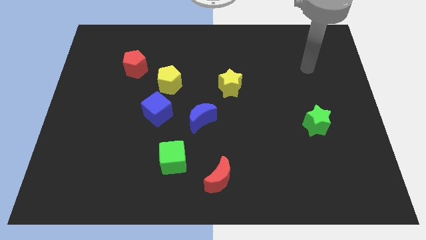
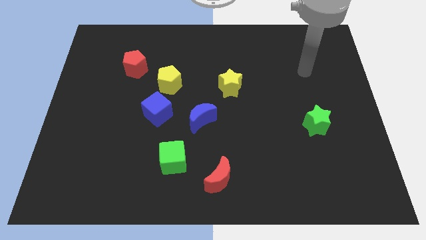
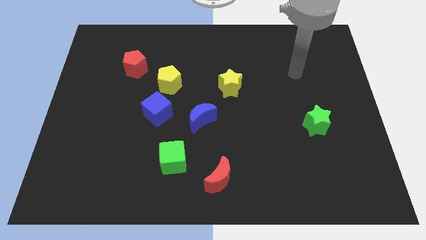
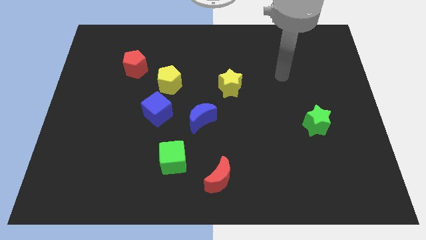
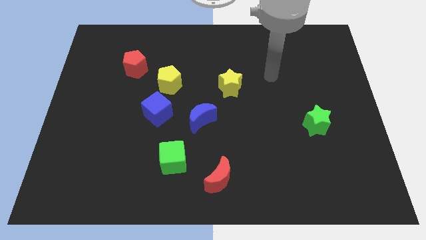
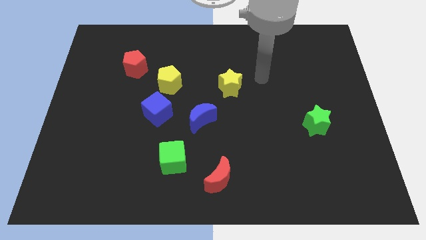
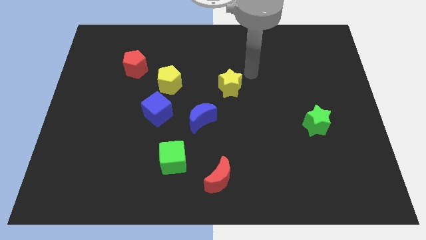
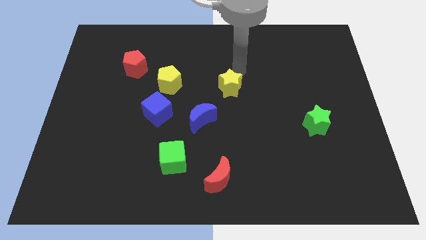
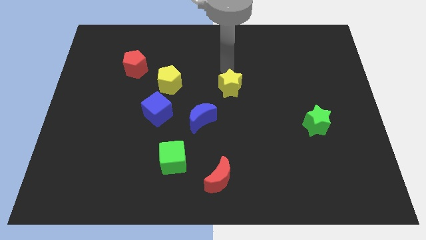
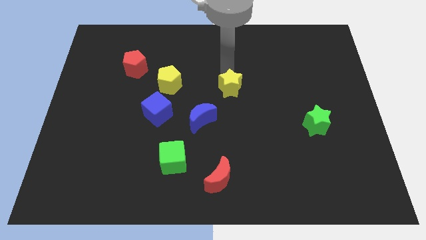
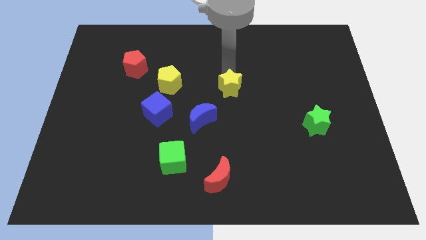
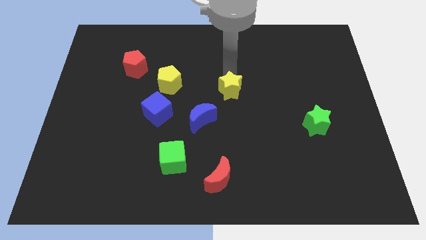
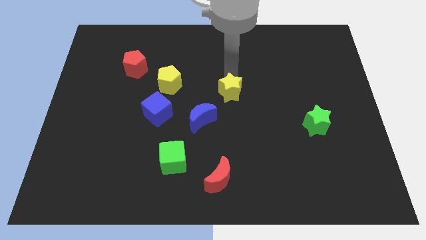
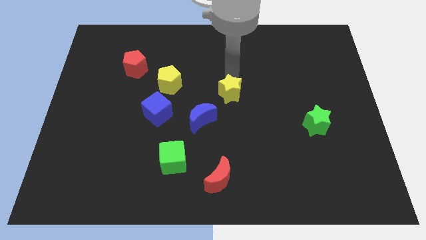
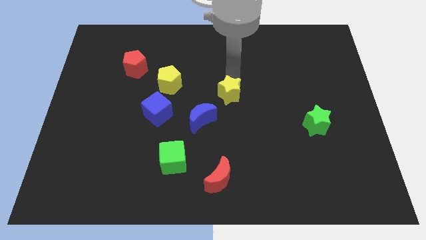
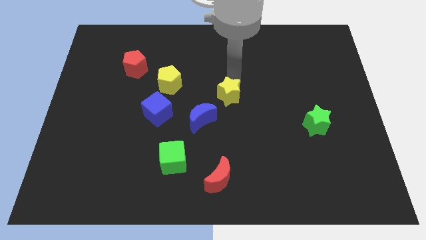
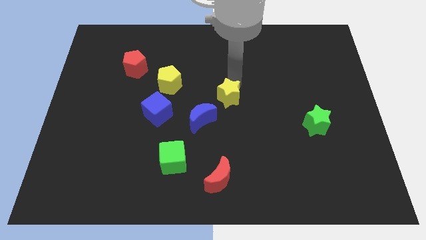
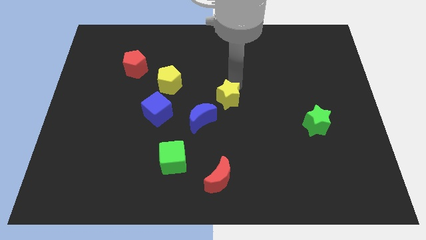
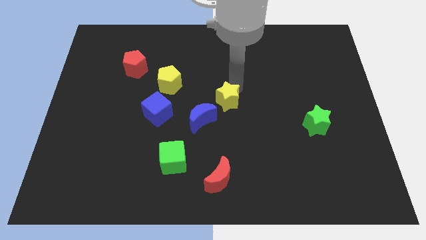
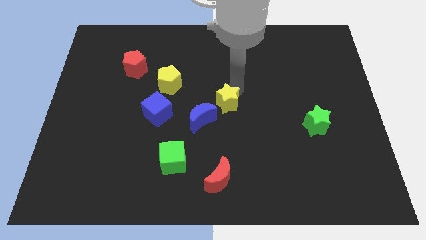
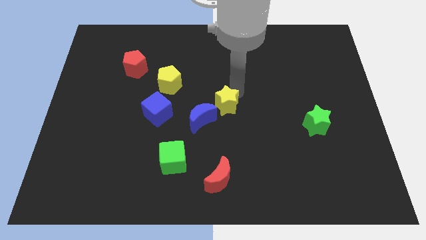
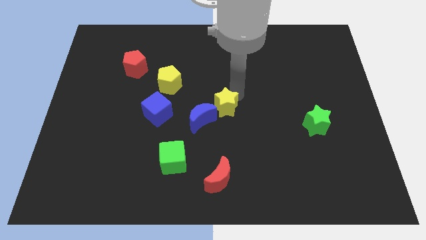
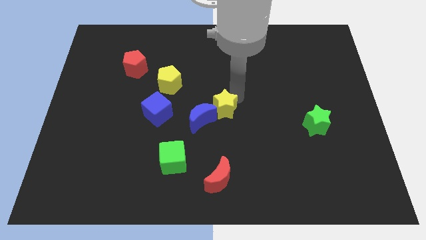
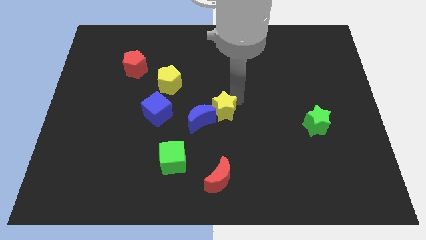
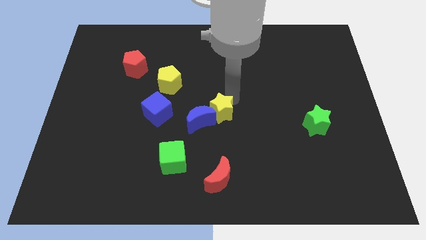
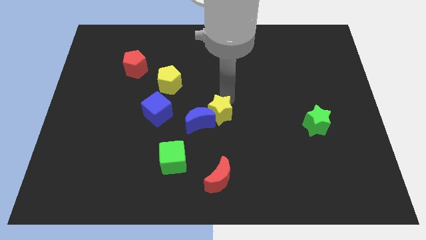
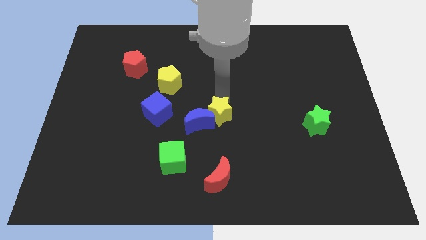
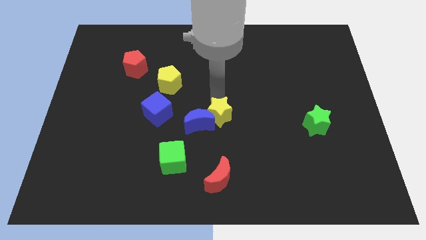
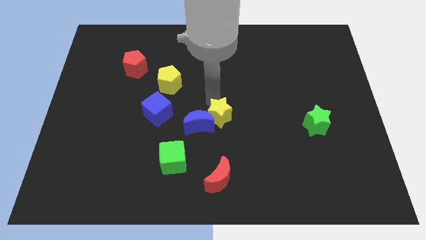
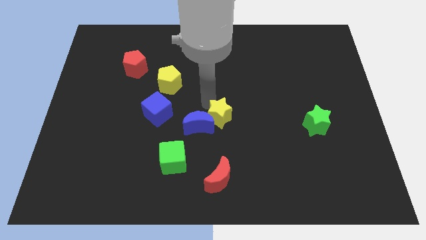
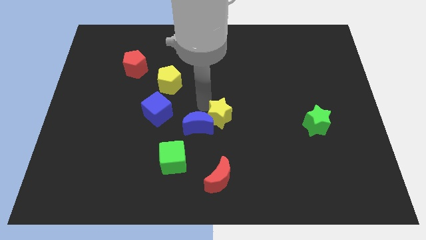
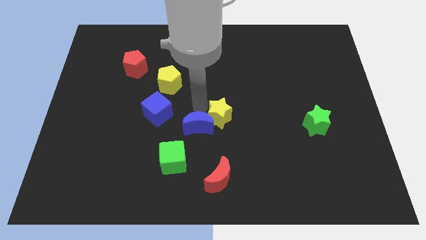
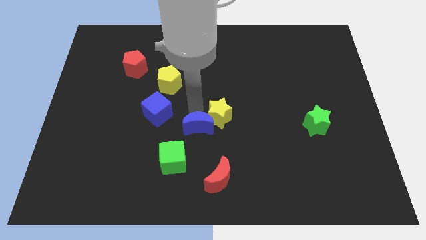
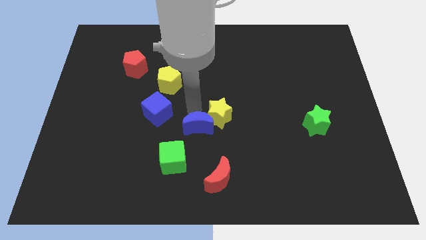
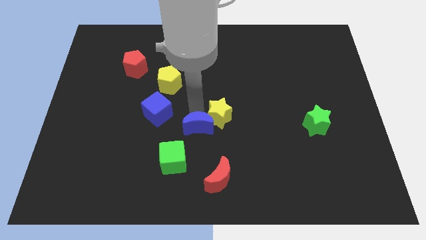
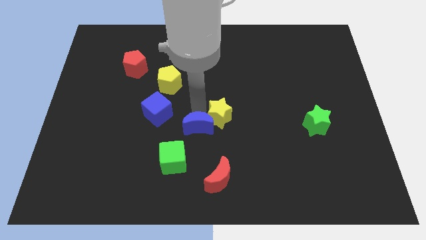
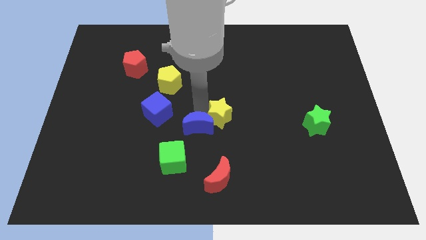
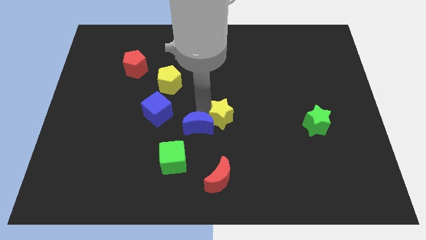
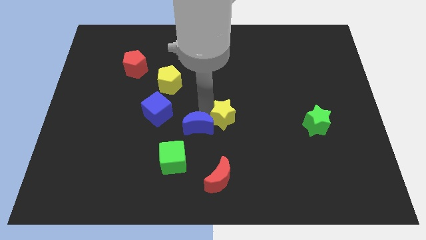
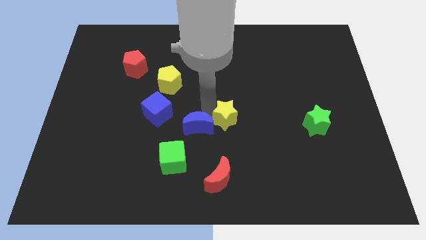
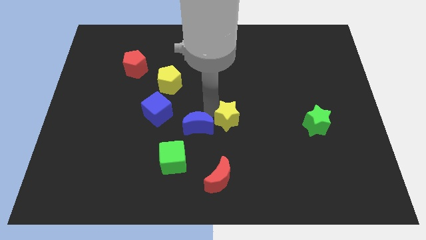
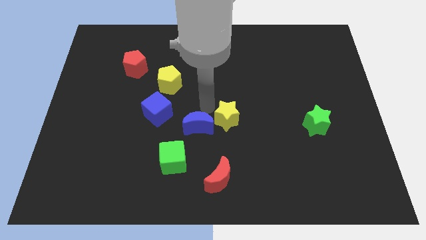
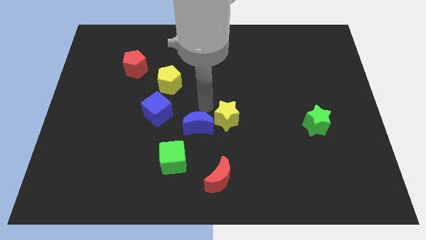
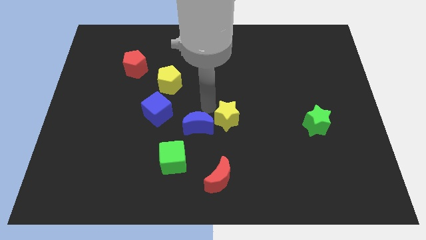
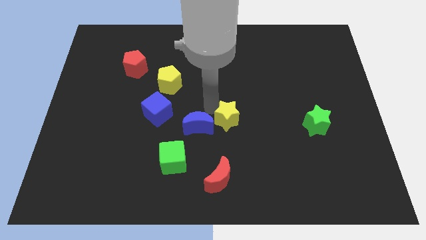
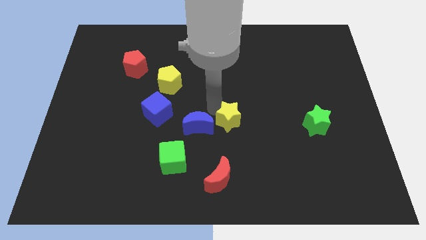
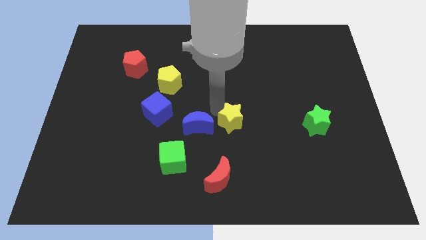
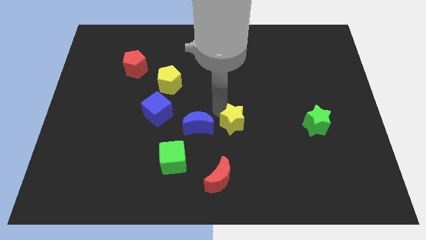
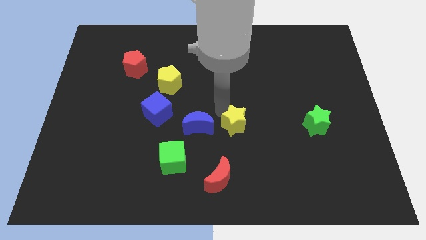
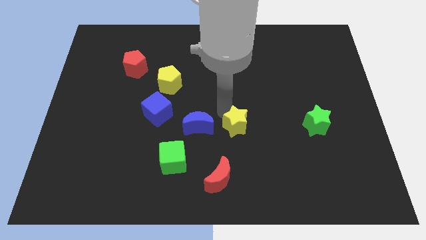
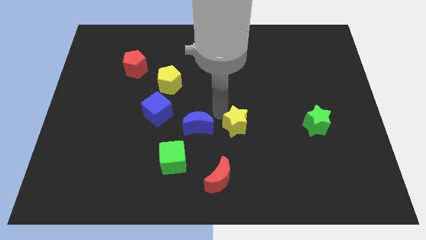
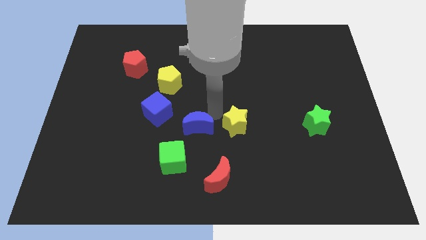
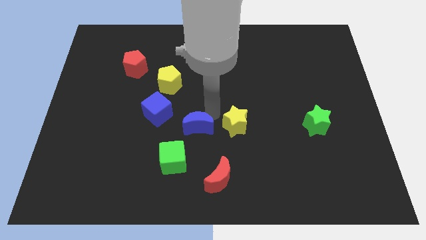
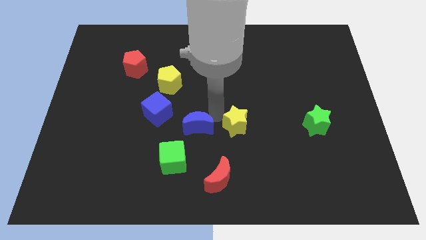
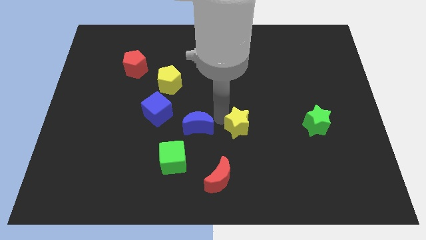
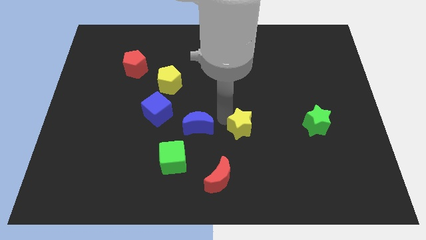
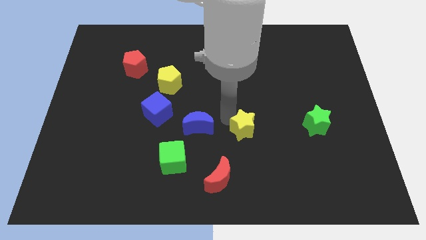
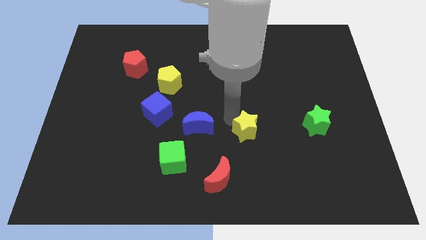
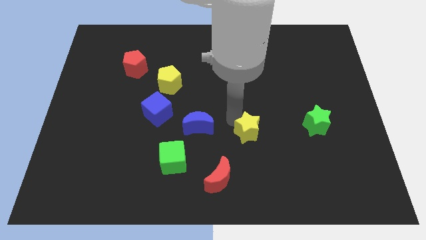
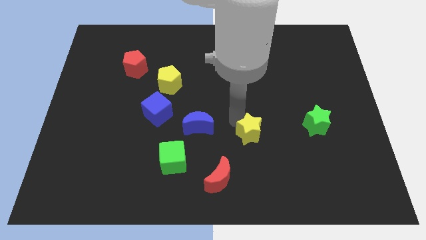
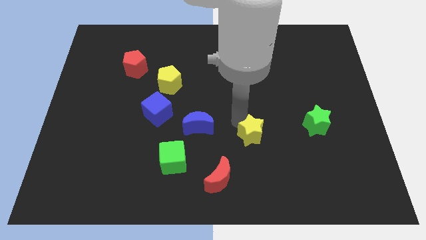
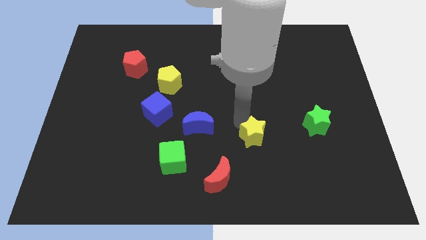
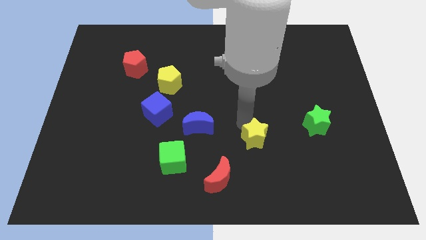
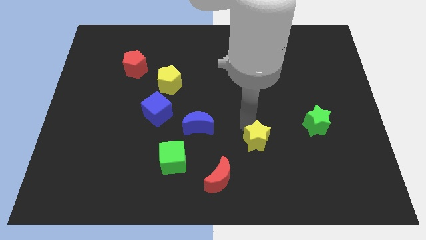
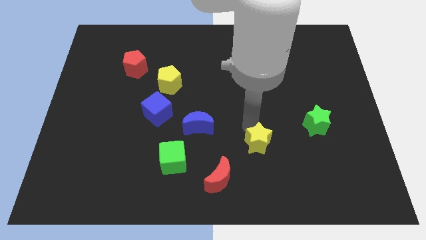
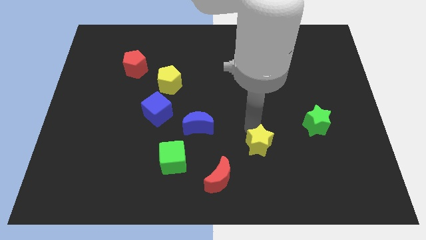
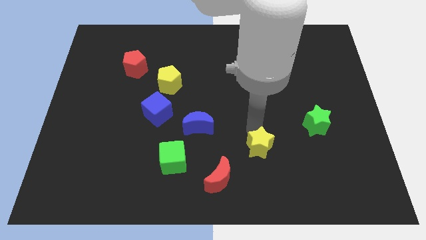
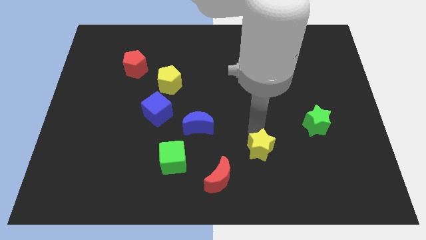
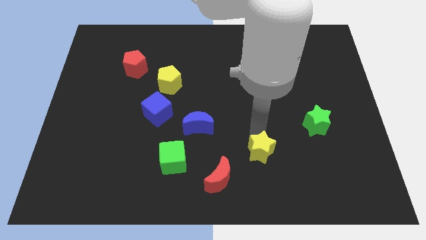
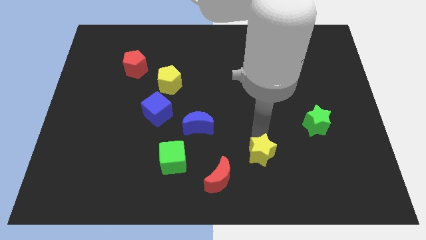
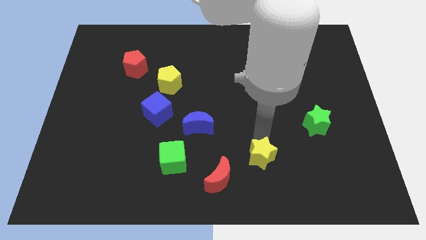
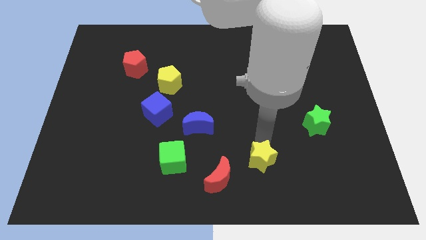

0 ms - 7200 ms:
slide the yellow star right of the red moon
